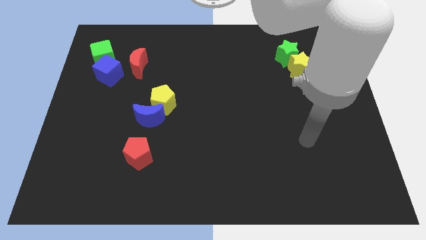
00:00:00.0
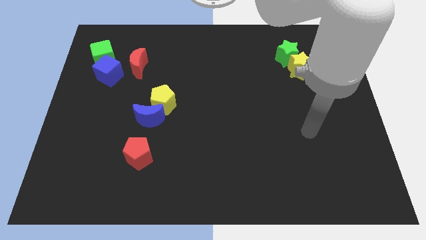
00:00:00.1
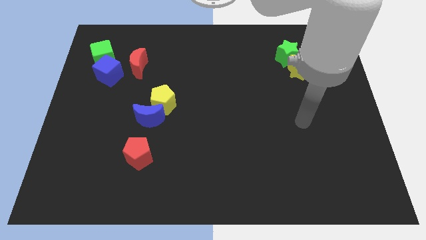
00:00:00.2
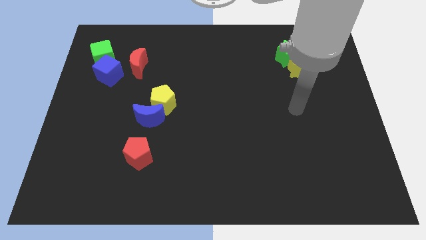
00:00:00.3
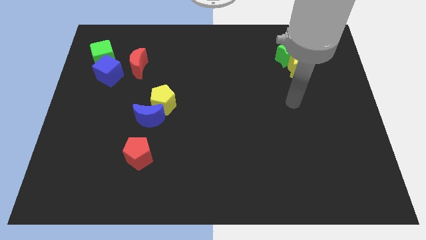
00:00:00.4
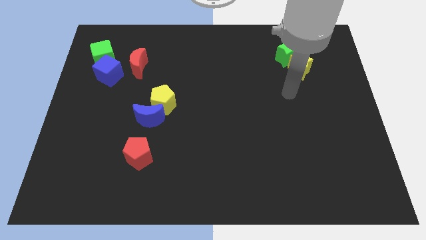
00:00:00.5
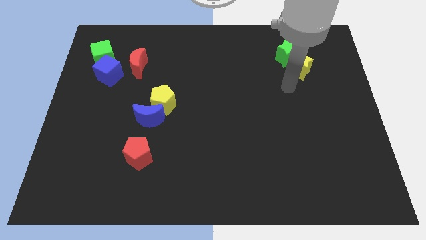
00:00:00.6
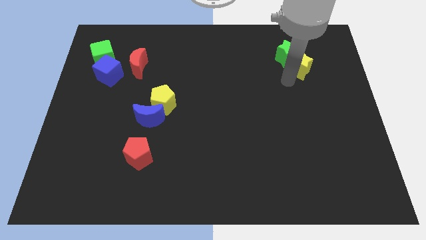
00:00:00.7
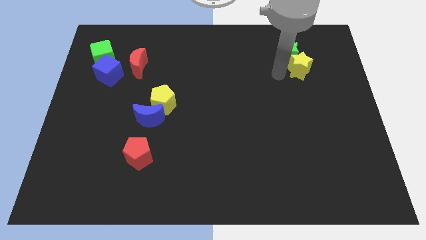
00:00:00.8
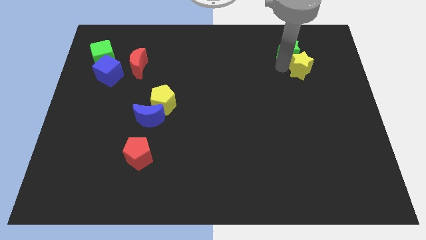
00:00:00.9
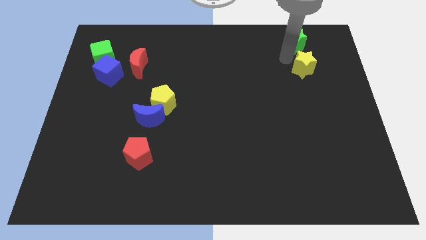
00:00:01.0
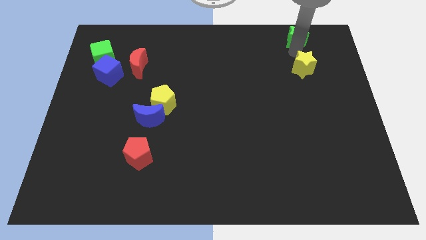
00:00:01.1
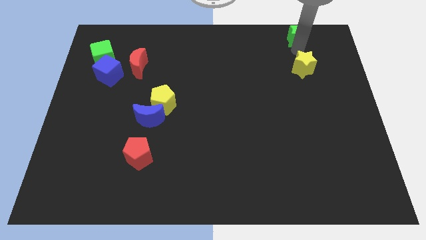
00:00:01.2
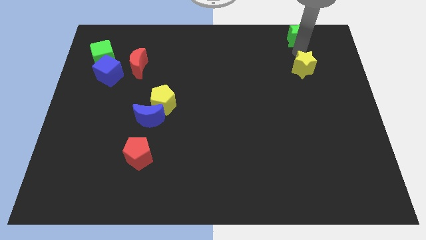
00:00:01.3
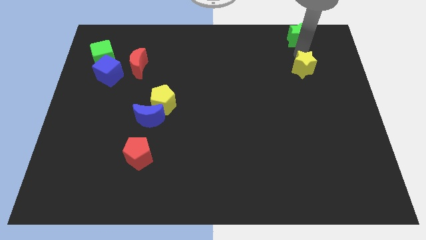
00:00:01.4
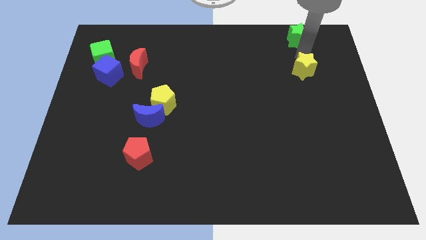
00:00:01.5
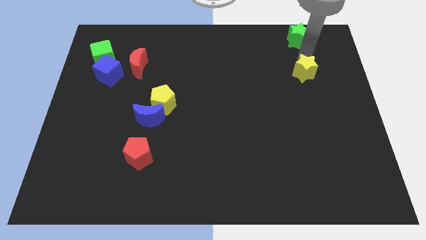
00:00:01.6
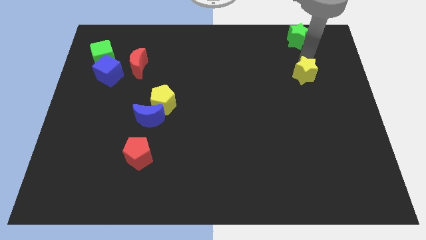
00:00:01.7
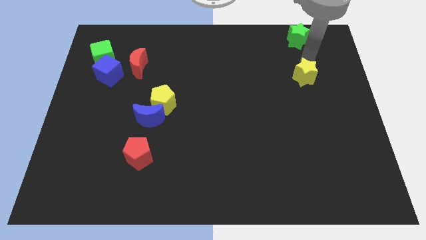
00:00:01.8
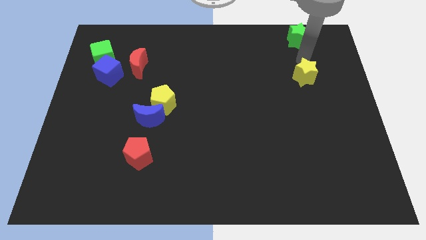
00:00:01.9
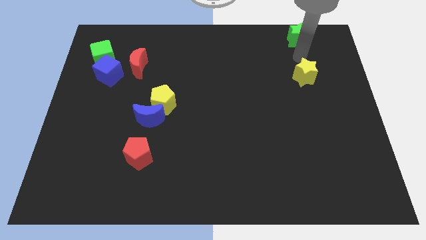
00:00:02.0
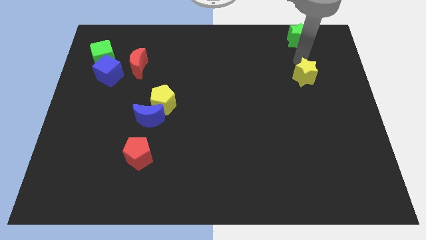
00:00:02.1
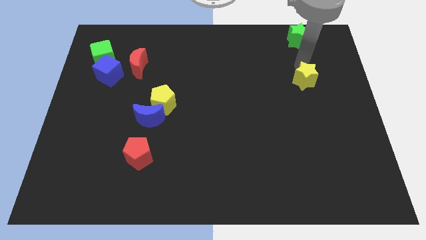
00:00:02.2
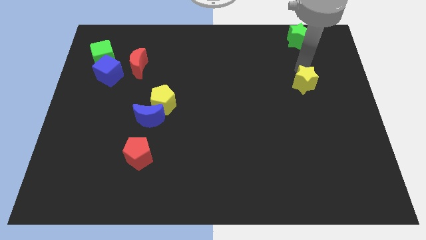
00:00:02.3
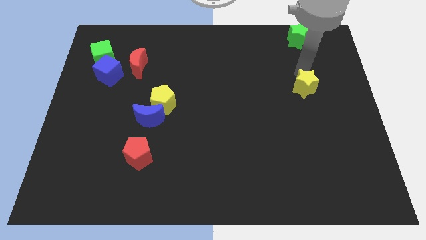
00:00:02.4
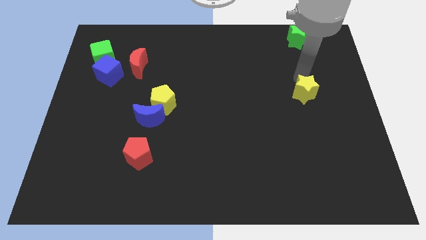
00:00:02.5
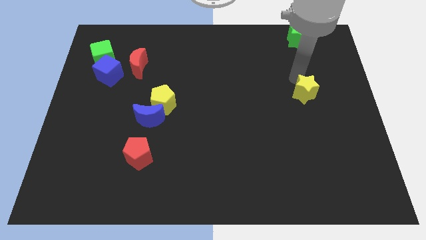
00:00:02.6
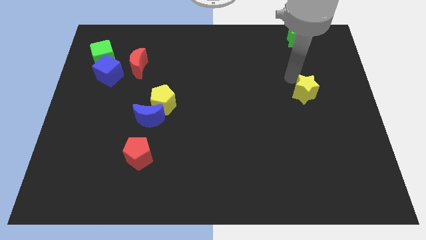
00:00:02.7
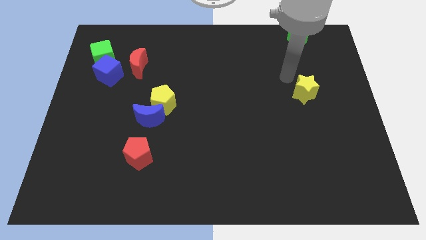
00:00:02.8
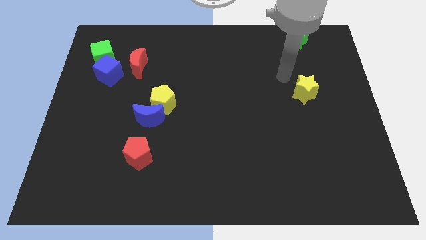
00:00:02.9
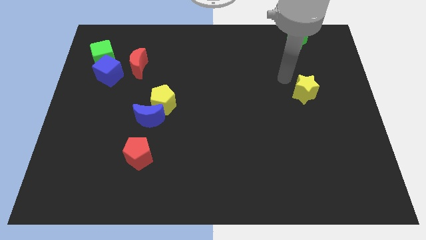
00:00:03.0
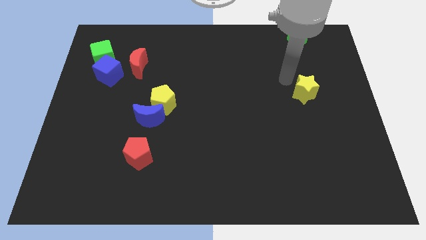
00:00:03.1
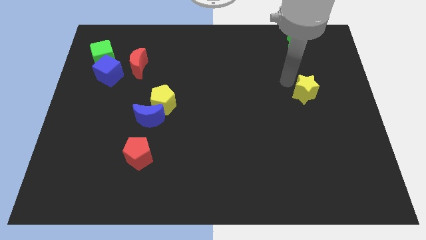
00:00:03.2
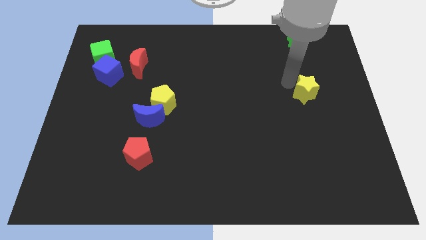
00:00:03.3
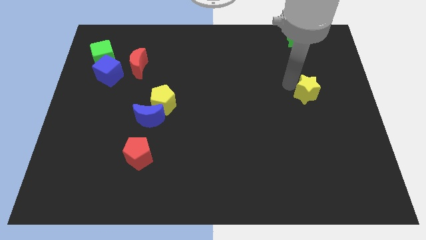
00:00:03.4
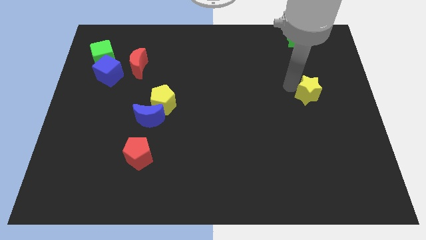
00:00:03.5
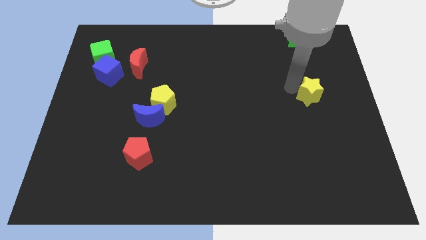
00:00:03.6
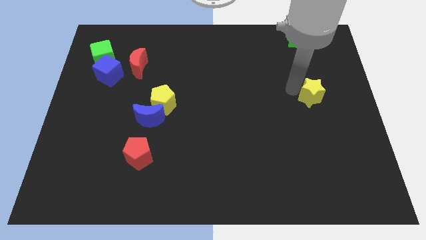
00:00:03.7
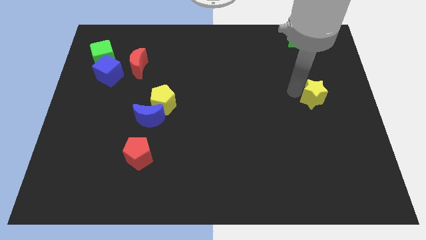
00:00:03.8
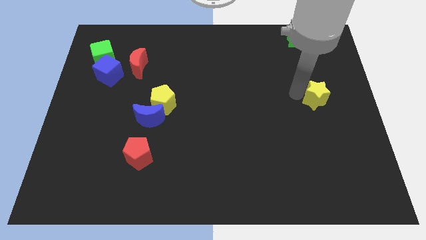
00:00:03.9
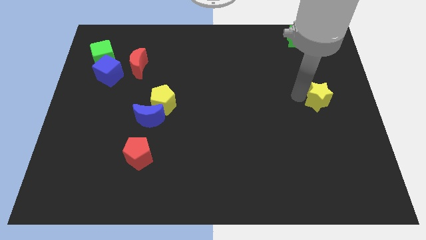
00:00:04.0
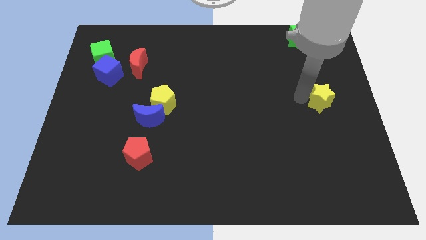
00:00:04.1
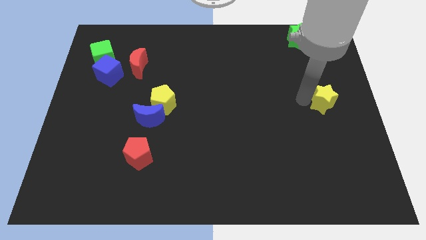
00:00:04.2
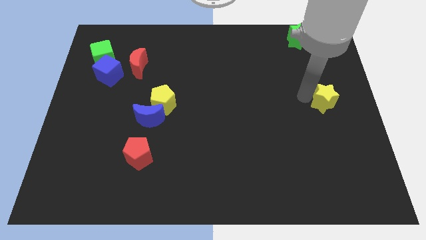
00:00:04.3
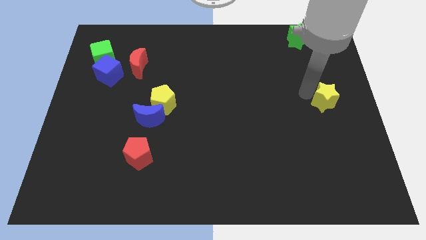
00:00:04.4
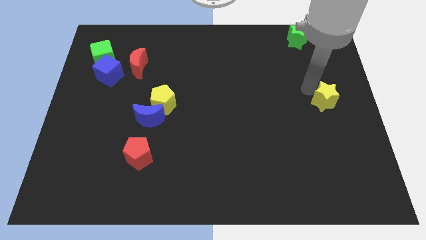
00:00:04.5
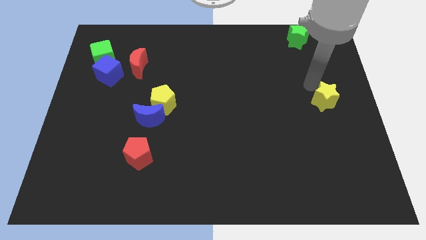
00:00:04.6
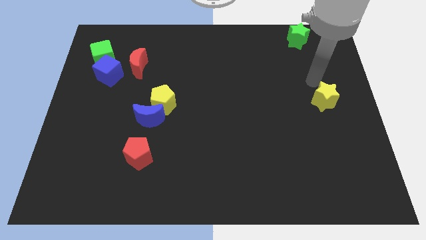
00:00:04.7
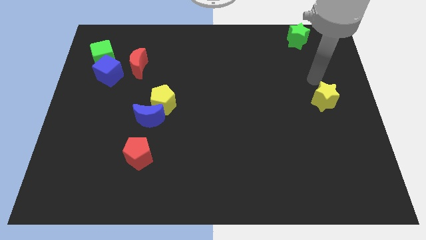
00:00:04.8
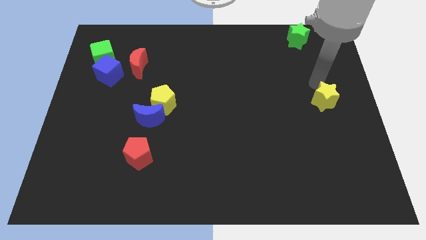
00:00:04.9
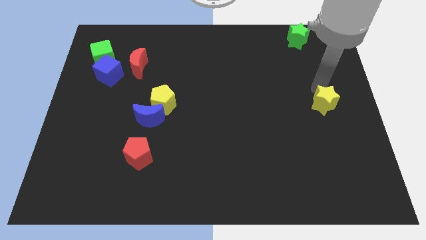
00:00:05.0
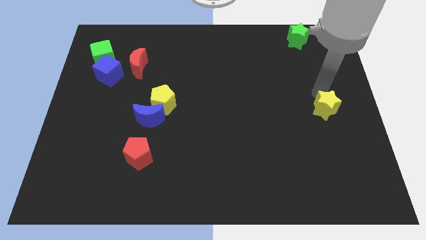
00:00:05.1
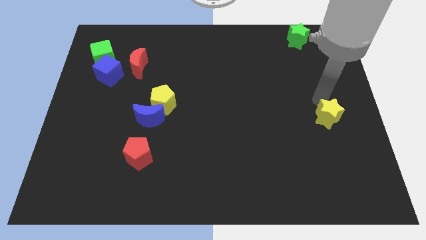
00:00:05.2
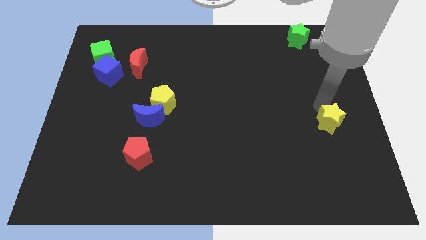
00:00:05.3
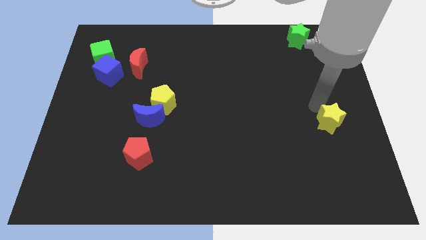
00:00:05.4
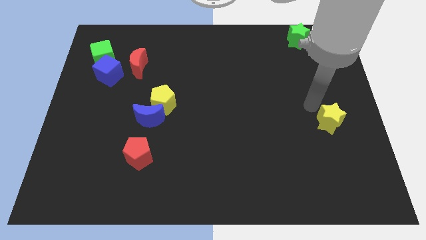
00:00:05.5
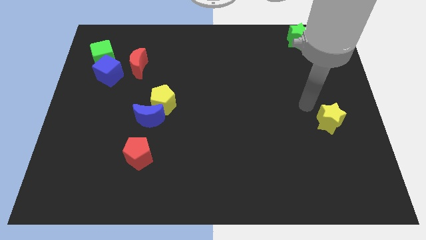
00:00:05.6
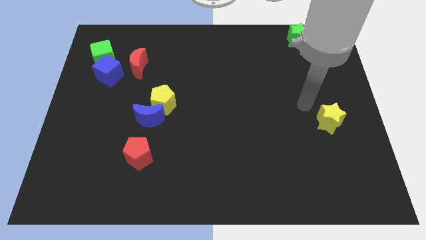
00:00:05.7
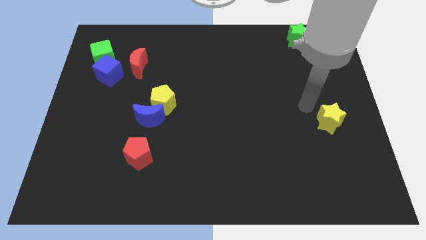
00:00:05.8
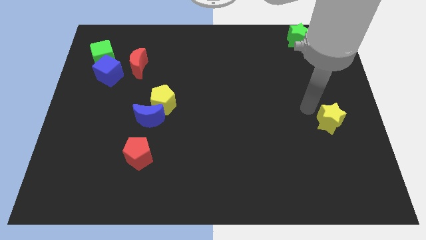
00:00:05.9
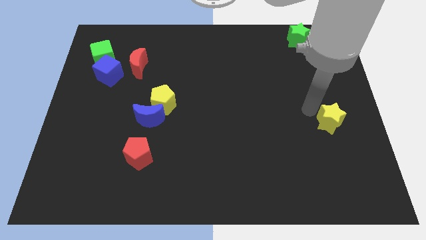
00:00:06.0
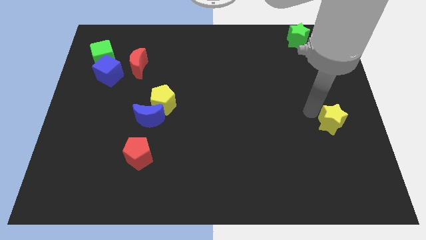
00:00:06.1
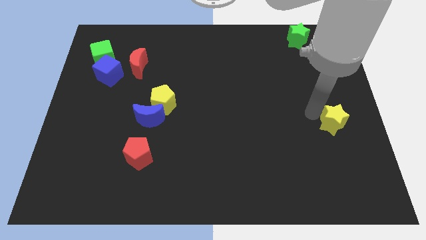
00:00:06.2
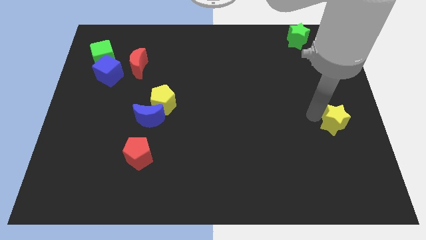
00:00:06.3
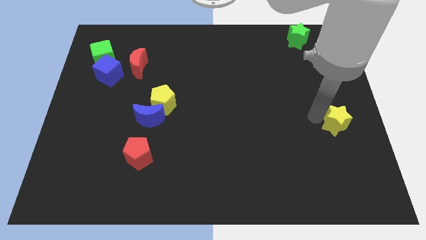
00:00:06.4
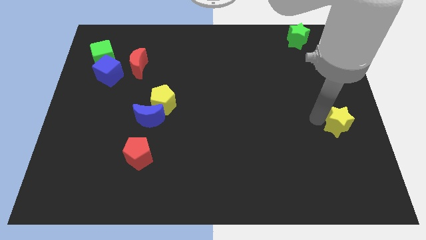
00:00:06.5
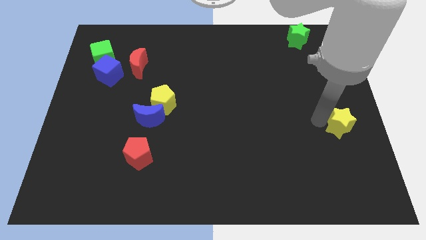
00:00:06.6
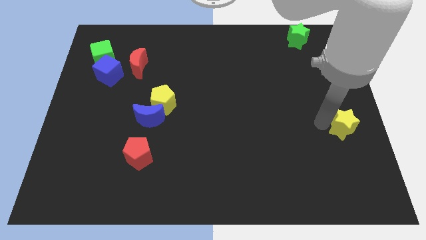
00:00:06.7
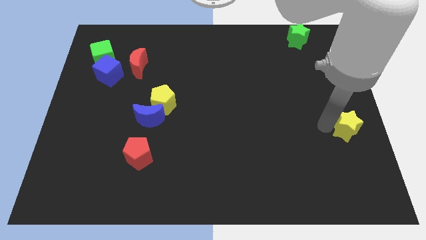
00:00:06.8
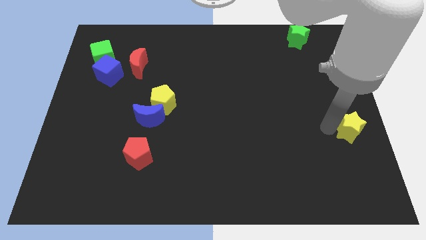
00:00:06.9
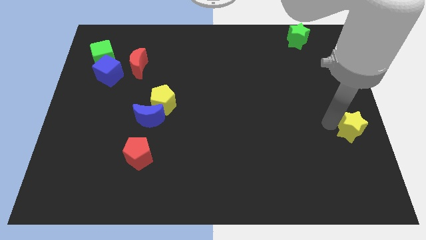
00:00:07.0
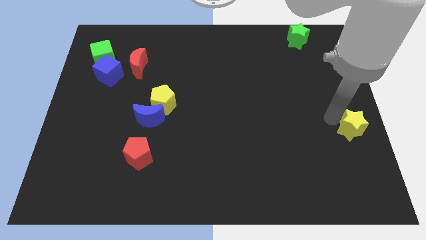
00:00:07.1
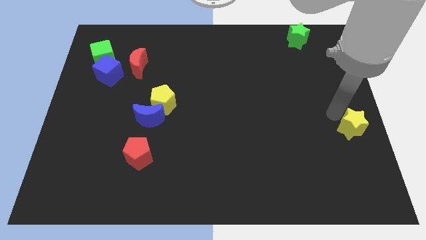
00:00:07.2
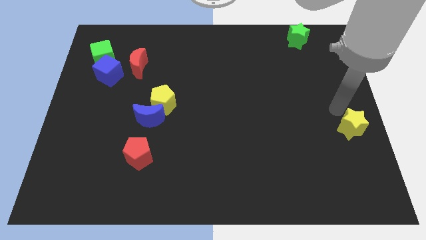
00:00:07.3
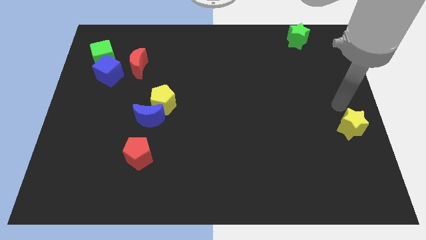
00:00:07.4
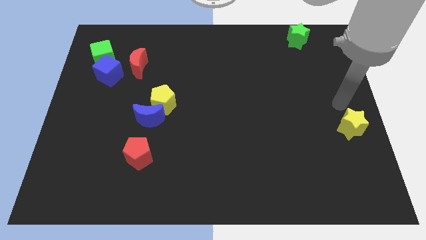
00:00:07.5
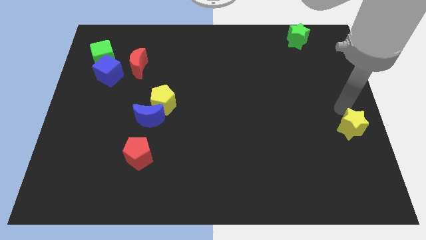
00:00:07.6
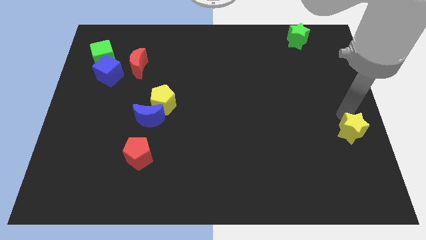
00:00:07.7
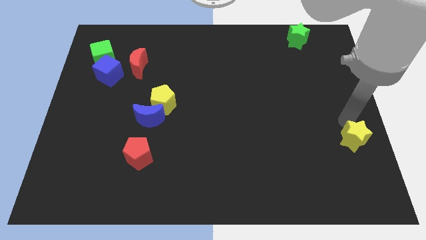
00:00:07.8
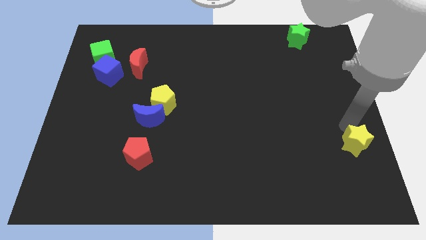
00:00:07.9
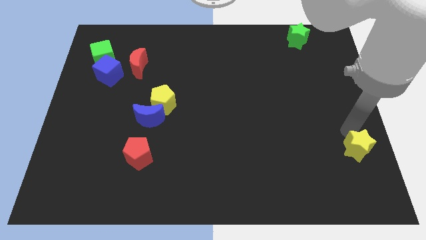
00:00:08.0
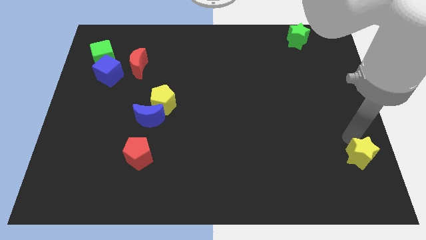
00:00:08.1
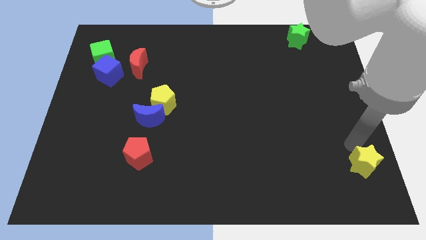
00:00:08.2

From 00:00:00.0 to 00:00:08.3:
put the yellow star to the bottom right
